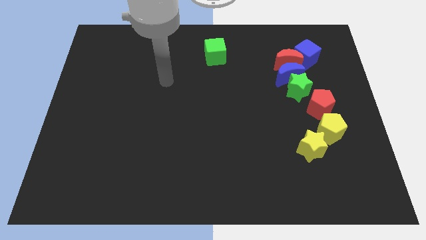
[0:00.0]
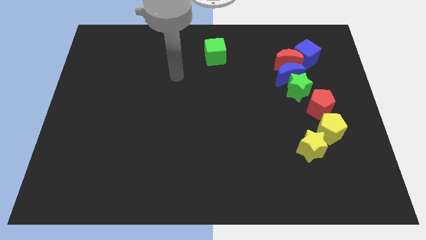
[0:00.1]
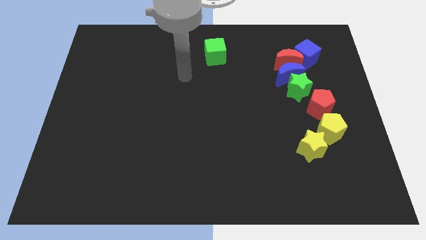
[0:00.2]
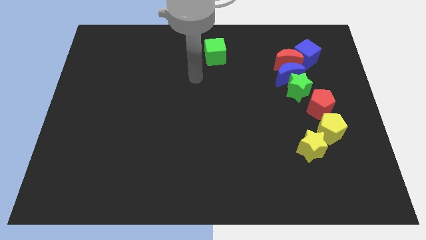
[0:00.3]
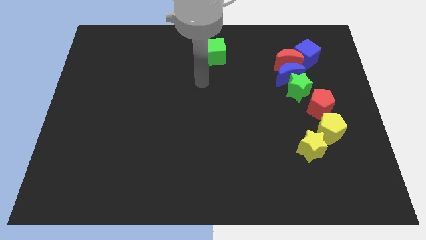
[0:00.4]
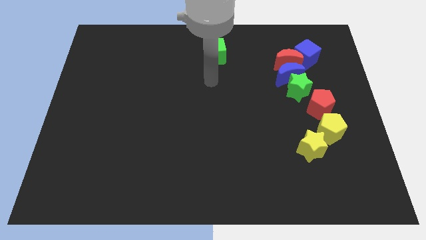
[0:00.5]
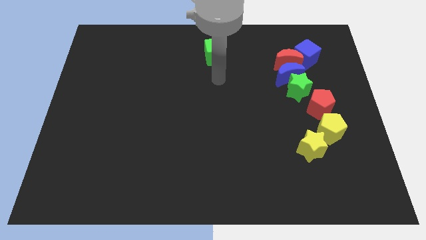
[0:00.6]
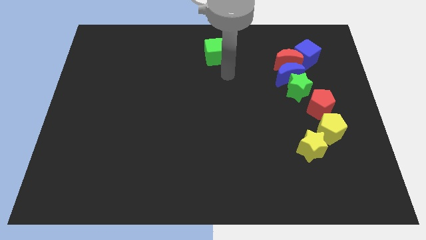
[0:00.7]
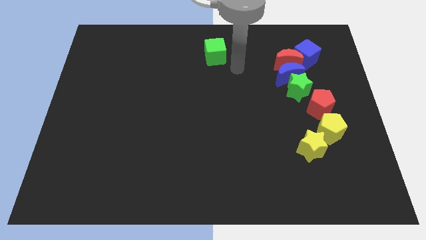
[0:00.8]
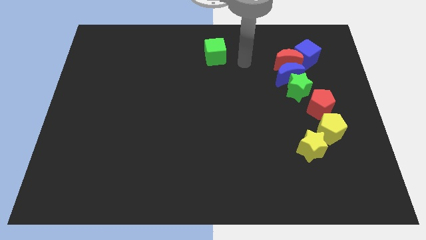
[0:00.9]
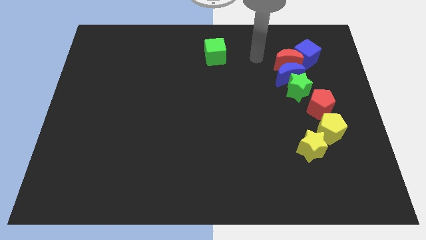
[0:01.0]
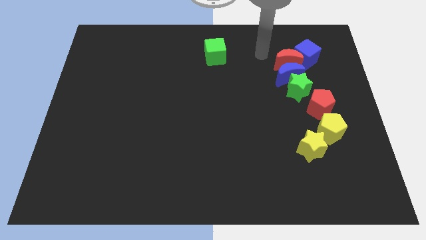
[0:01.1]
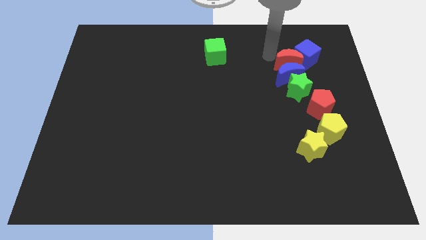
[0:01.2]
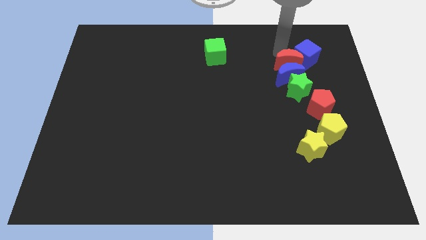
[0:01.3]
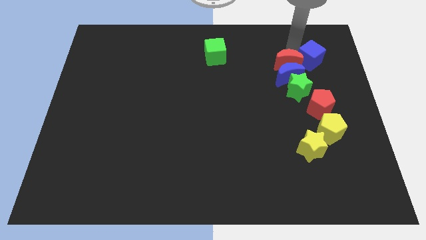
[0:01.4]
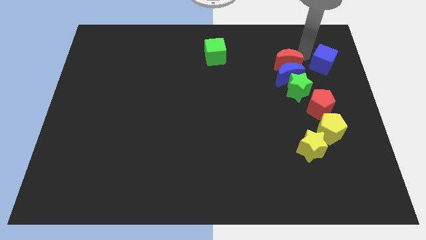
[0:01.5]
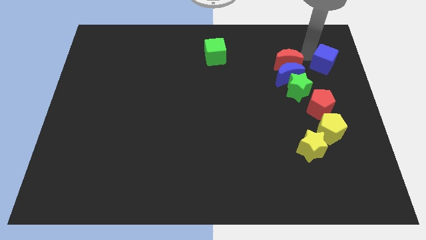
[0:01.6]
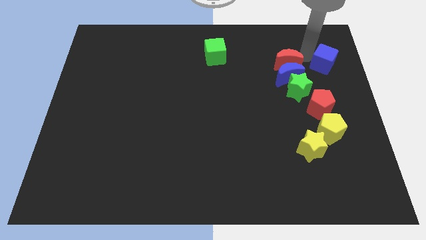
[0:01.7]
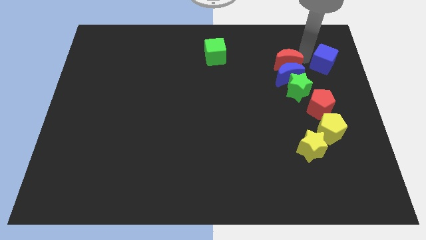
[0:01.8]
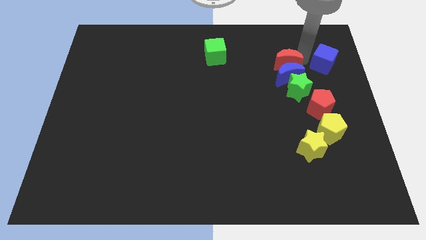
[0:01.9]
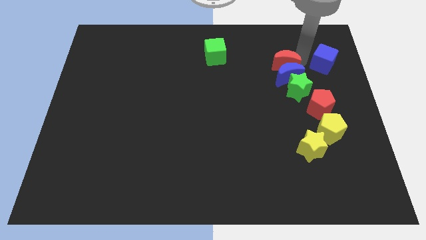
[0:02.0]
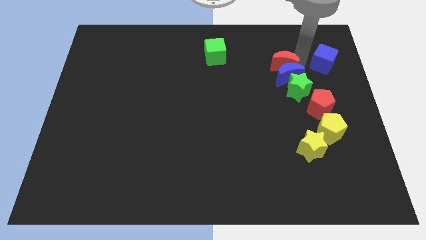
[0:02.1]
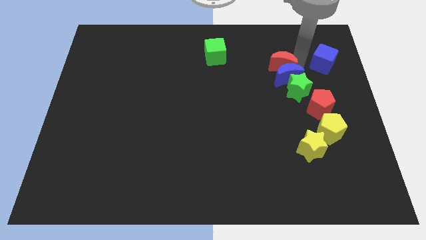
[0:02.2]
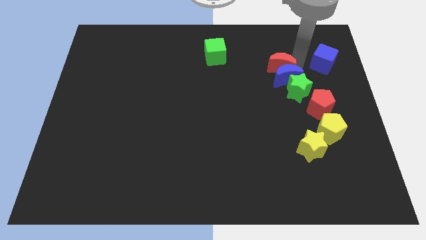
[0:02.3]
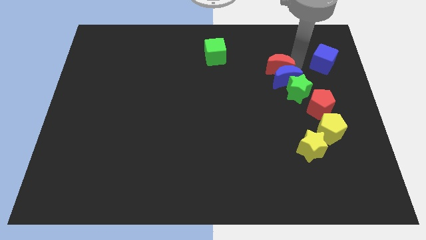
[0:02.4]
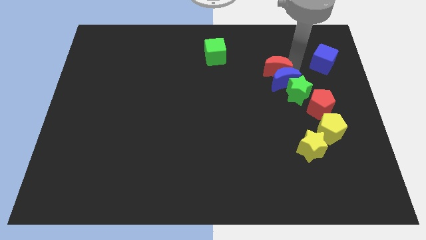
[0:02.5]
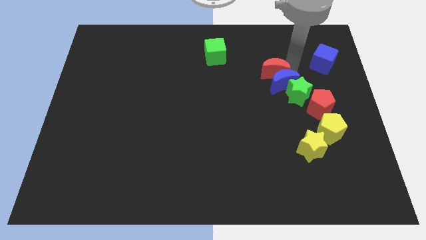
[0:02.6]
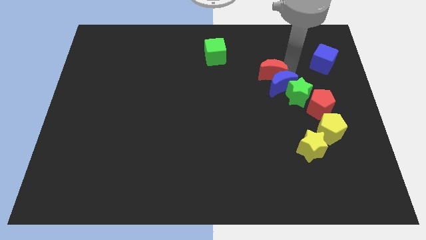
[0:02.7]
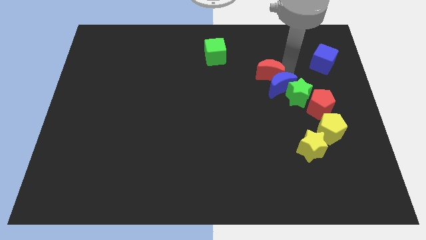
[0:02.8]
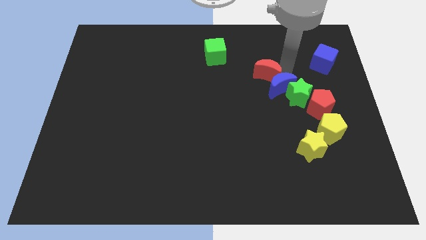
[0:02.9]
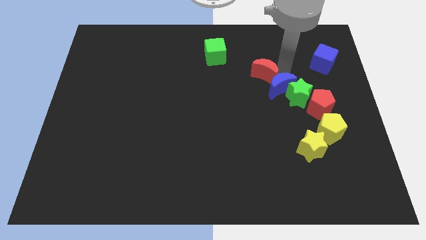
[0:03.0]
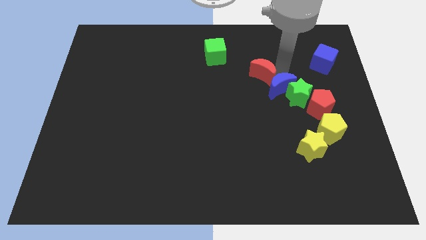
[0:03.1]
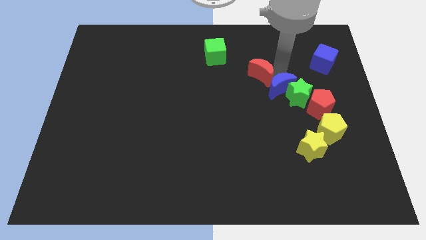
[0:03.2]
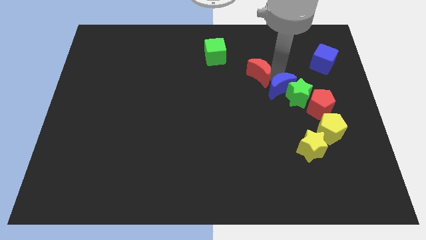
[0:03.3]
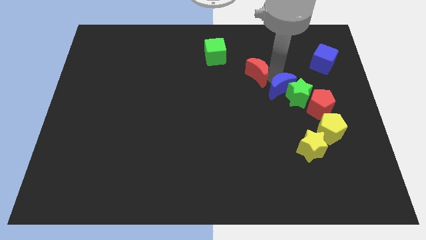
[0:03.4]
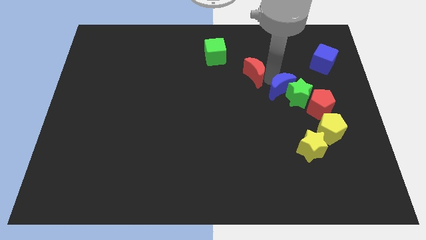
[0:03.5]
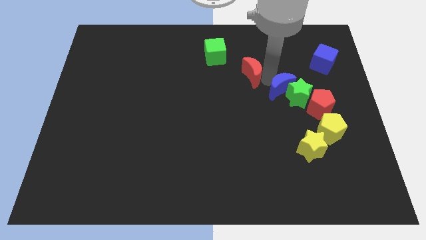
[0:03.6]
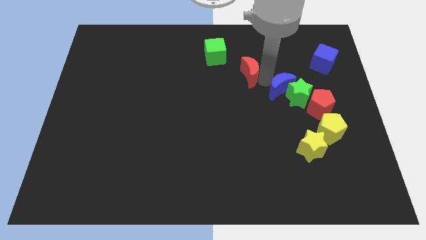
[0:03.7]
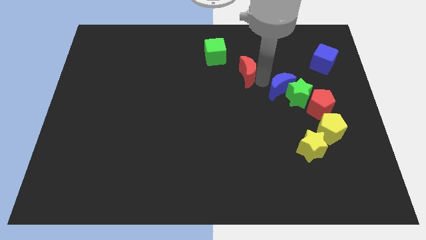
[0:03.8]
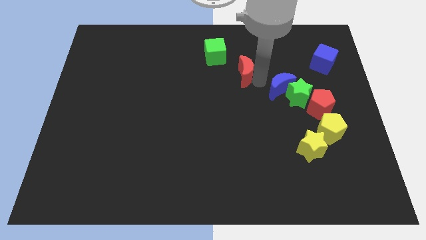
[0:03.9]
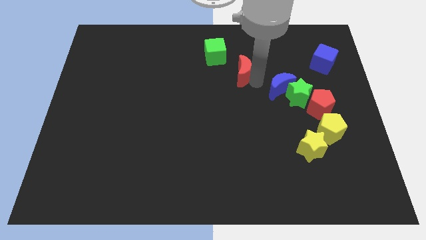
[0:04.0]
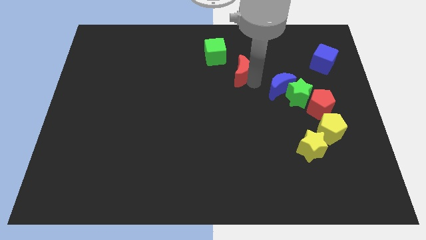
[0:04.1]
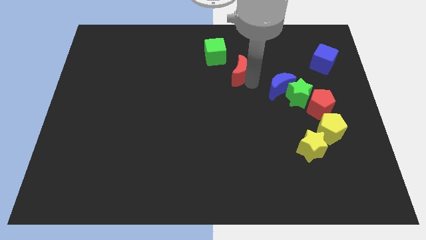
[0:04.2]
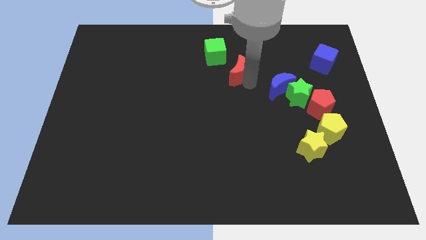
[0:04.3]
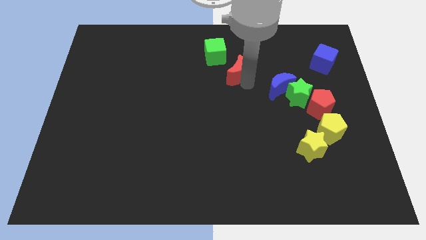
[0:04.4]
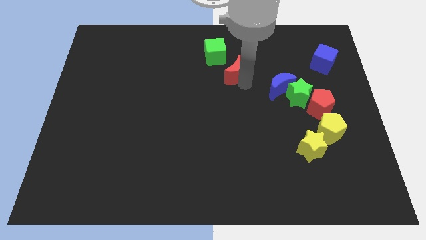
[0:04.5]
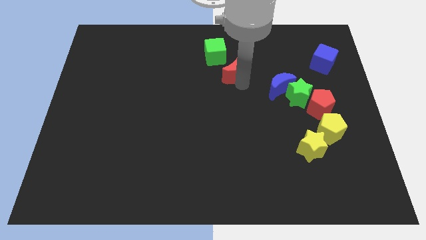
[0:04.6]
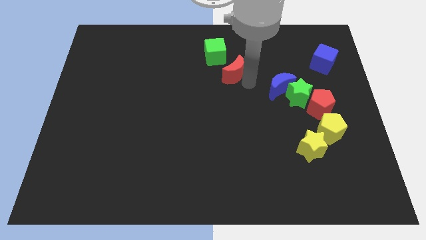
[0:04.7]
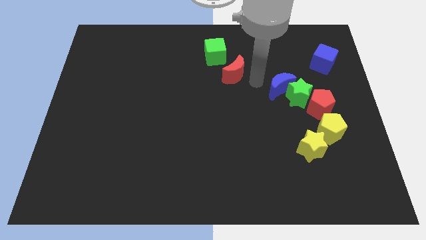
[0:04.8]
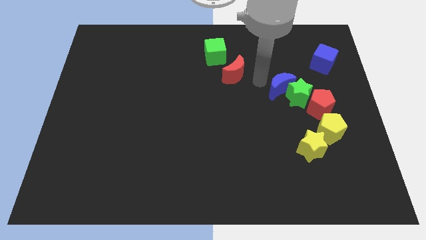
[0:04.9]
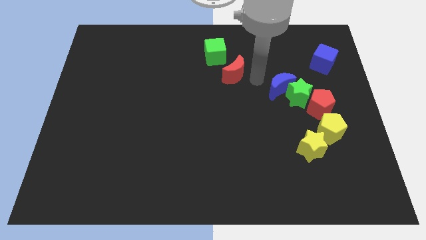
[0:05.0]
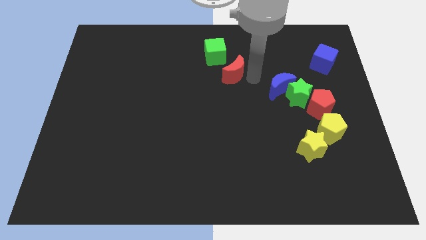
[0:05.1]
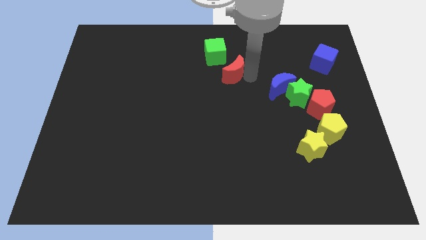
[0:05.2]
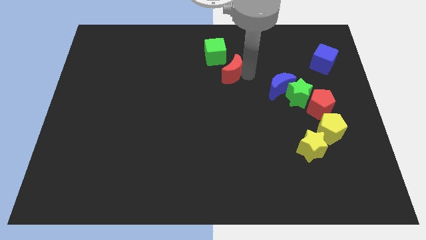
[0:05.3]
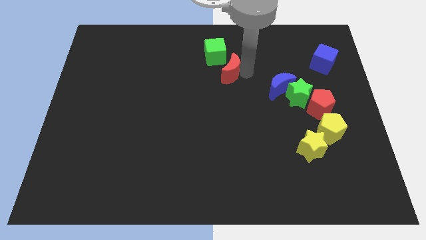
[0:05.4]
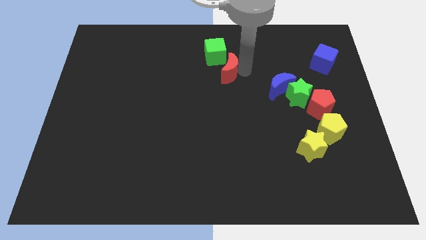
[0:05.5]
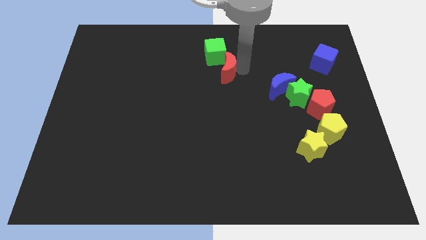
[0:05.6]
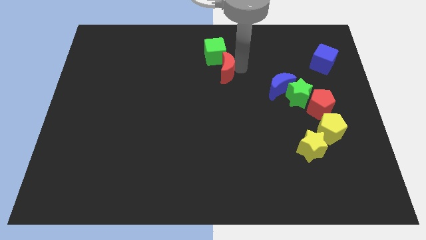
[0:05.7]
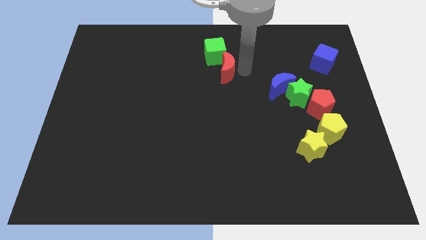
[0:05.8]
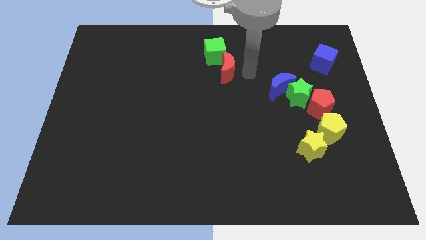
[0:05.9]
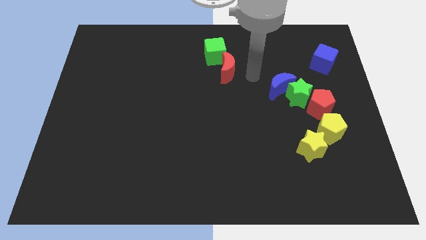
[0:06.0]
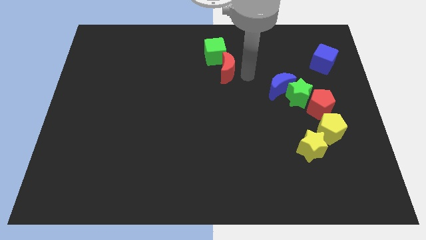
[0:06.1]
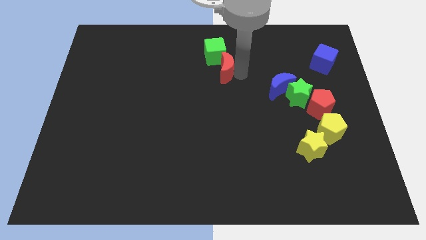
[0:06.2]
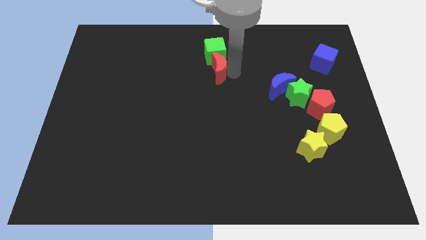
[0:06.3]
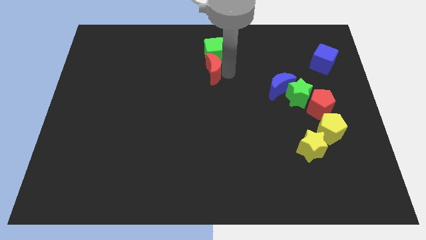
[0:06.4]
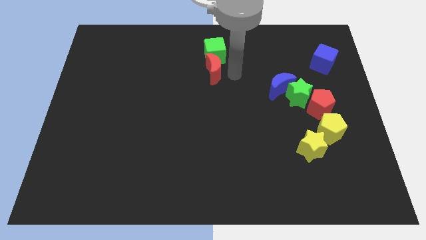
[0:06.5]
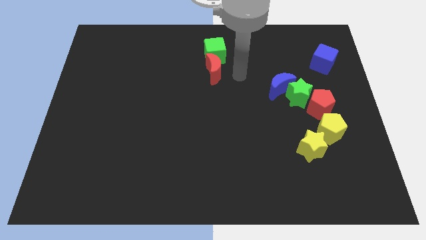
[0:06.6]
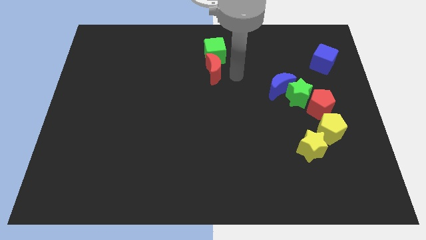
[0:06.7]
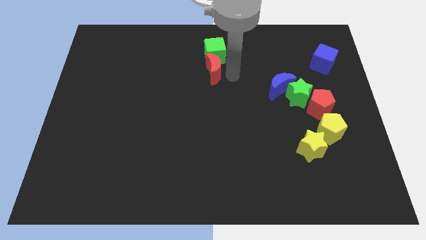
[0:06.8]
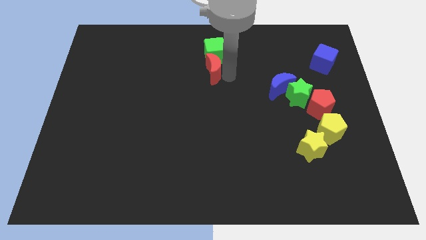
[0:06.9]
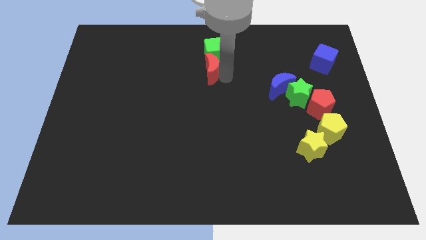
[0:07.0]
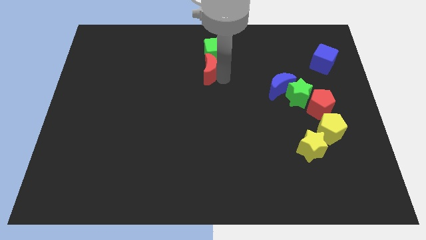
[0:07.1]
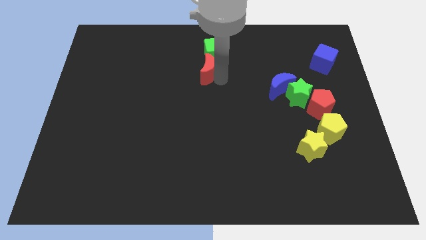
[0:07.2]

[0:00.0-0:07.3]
move the red moon left

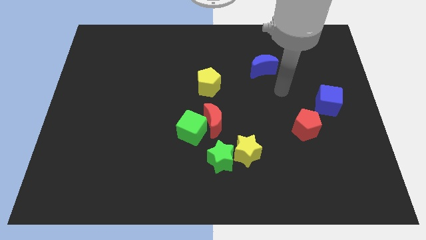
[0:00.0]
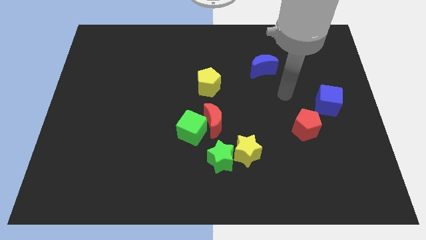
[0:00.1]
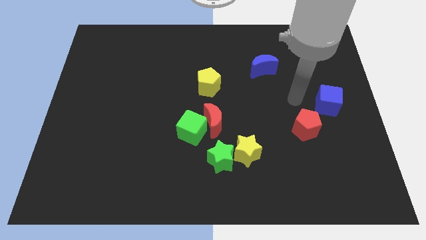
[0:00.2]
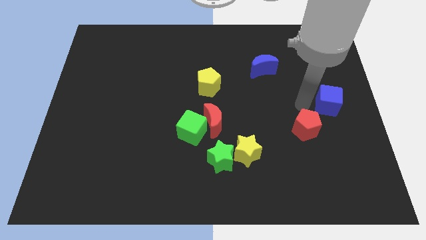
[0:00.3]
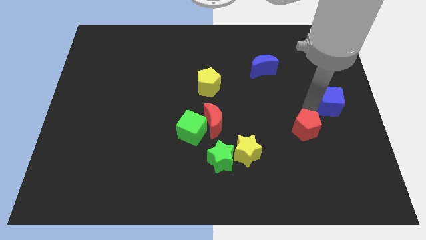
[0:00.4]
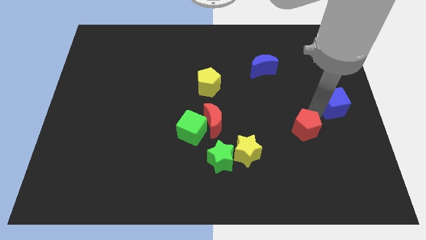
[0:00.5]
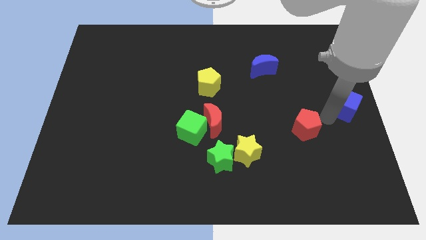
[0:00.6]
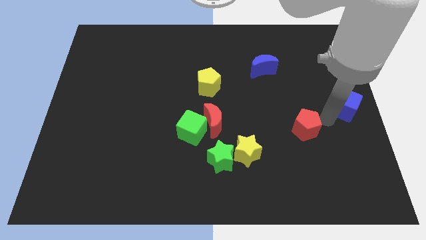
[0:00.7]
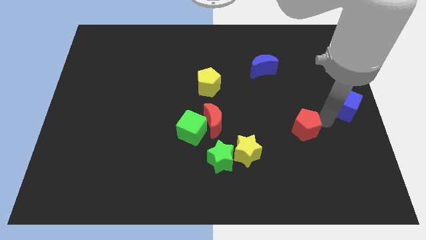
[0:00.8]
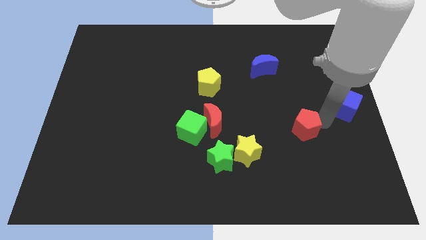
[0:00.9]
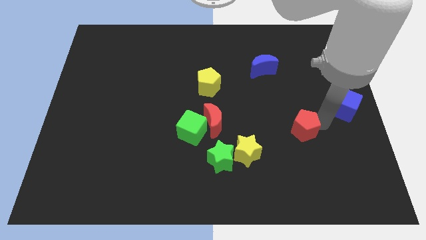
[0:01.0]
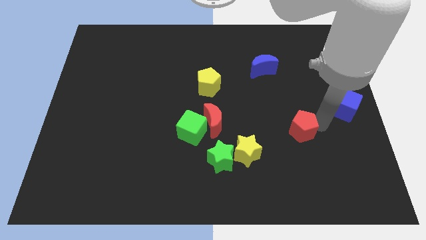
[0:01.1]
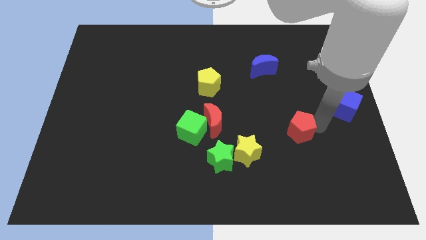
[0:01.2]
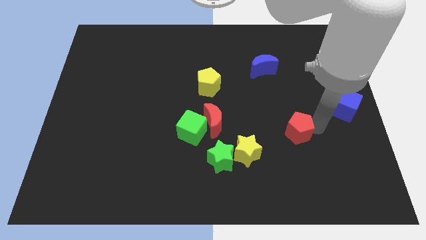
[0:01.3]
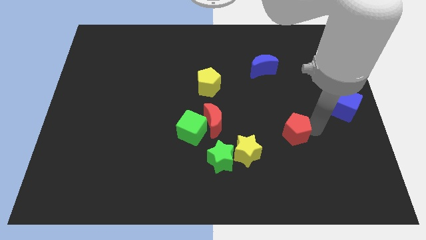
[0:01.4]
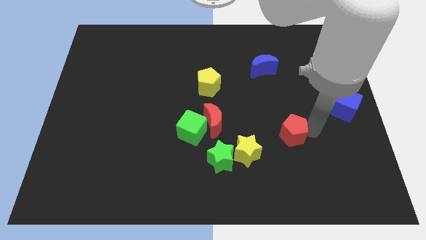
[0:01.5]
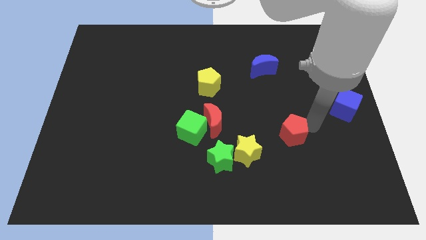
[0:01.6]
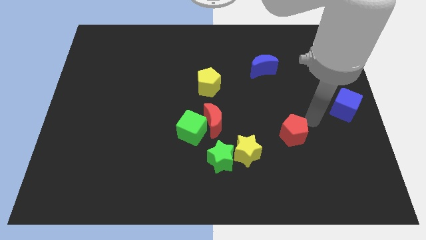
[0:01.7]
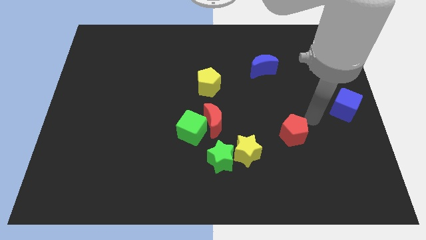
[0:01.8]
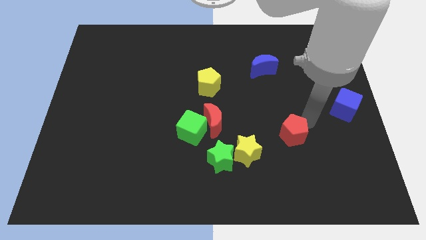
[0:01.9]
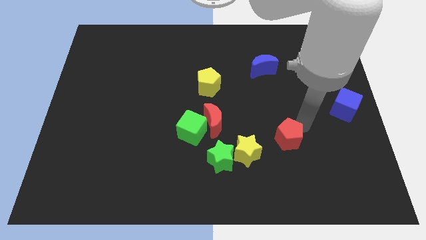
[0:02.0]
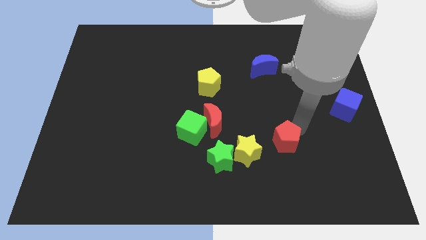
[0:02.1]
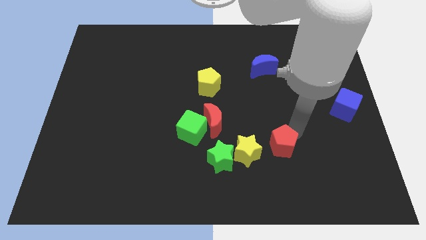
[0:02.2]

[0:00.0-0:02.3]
slide the red pentagon a little bit diagonally downwards and left
